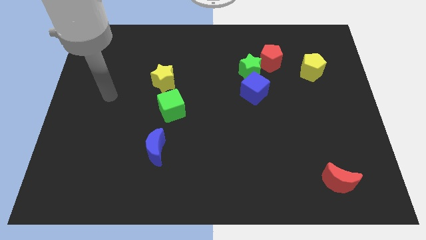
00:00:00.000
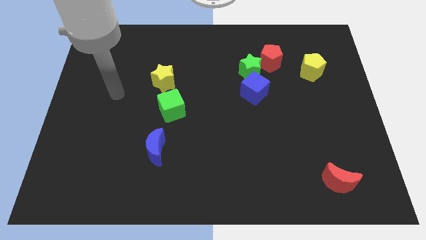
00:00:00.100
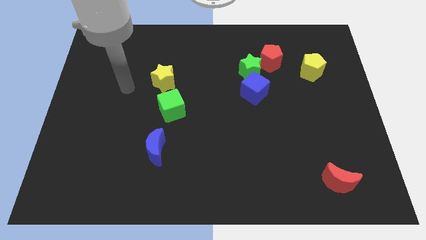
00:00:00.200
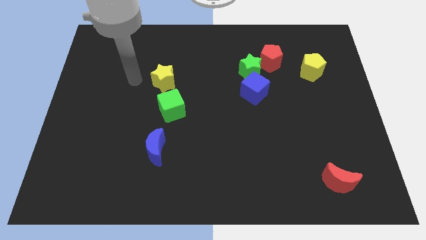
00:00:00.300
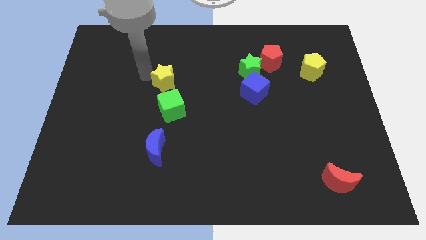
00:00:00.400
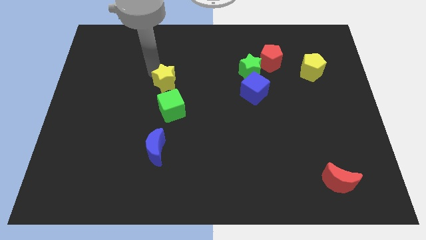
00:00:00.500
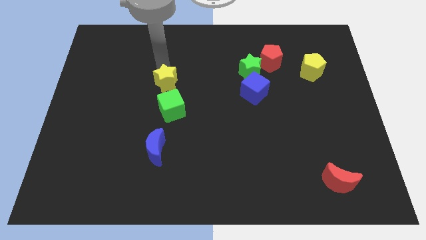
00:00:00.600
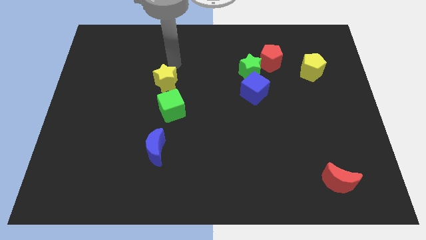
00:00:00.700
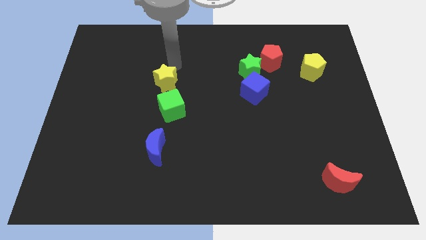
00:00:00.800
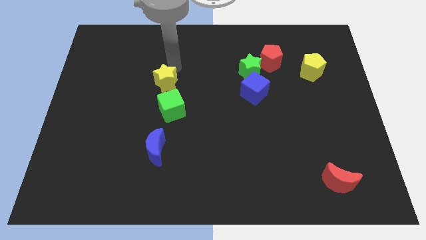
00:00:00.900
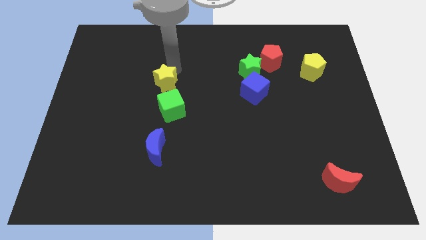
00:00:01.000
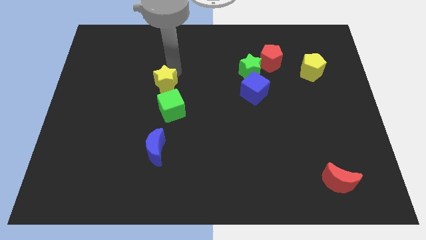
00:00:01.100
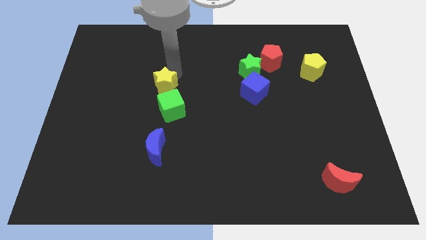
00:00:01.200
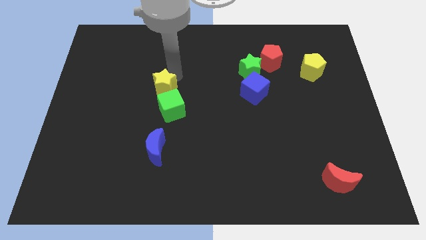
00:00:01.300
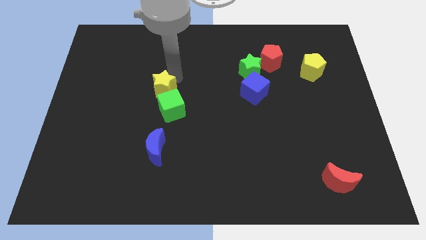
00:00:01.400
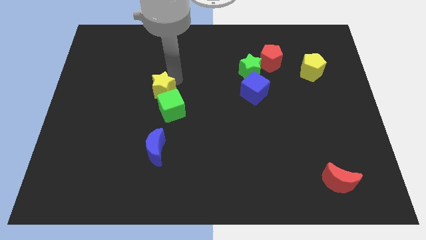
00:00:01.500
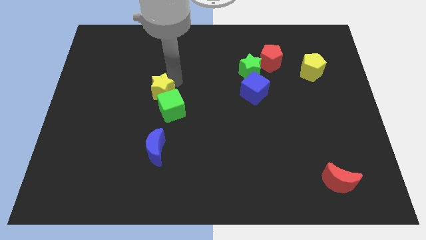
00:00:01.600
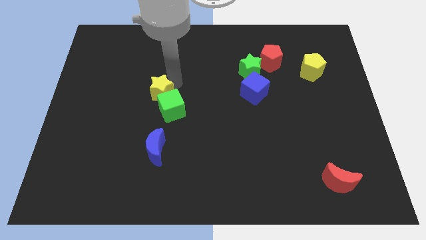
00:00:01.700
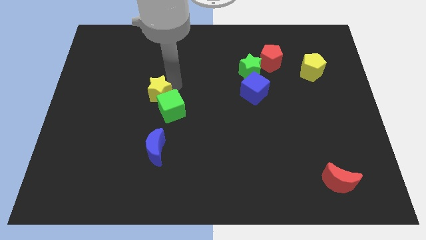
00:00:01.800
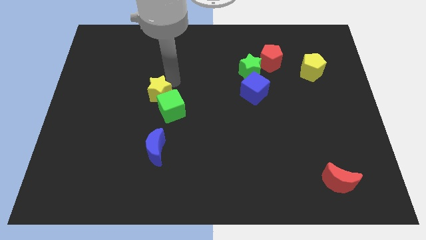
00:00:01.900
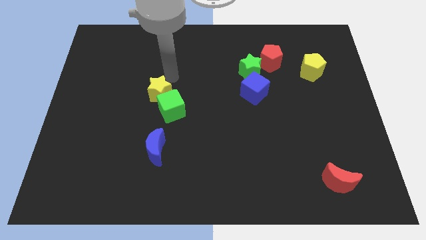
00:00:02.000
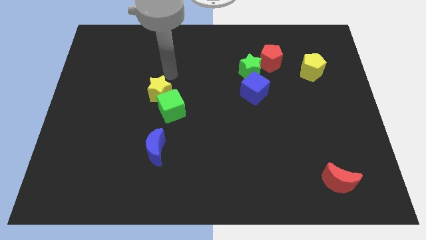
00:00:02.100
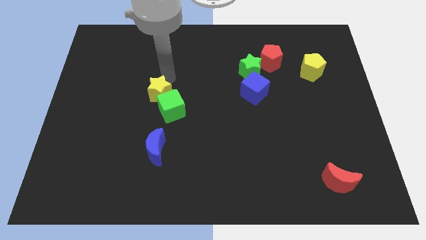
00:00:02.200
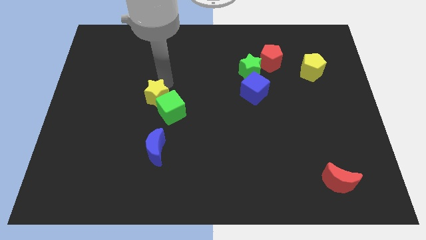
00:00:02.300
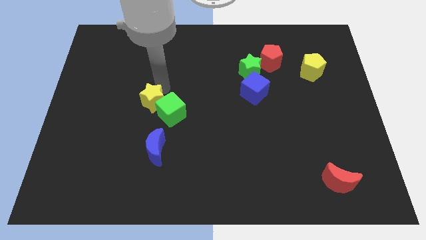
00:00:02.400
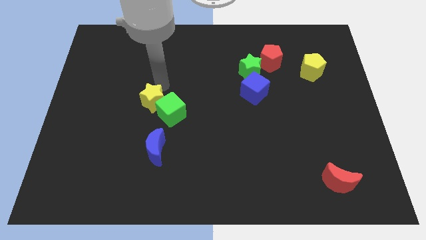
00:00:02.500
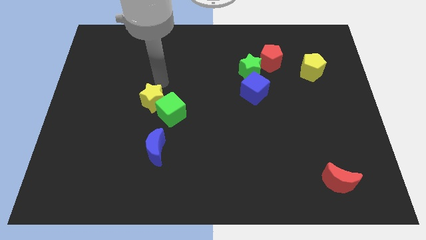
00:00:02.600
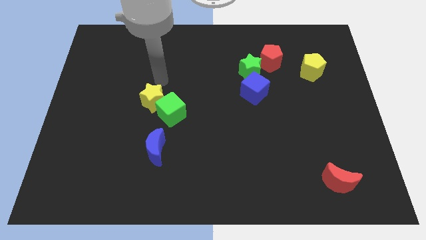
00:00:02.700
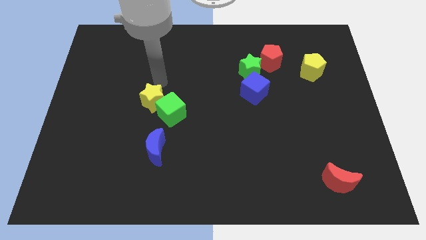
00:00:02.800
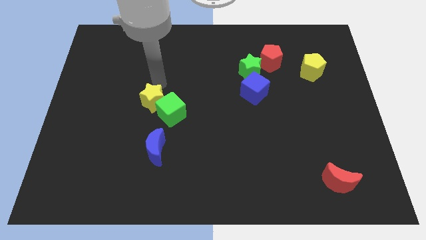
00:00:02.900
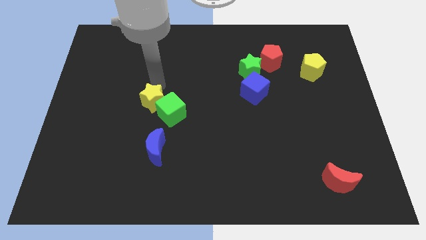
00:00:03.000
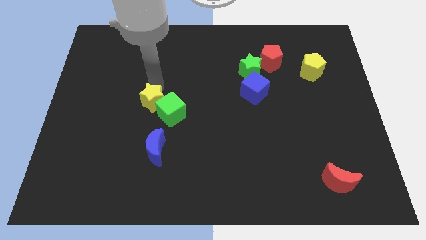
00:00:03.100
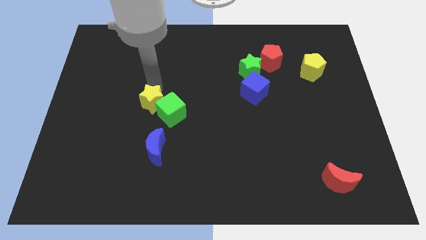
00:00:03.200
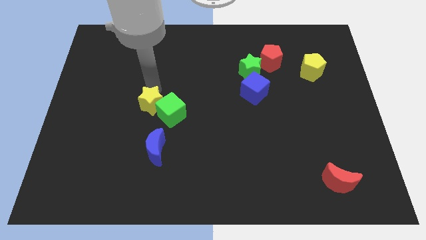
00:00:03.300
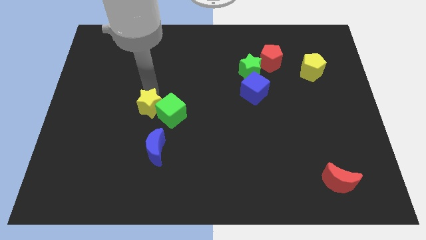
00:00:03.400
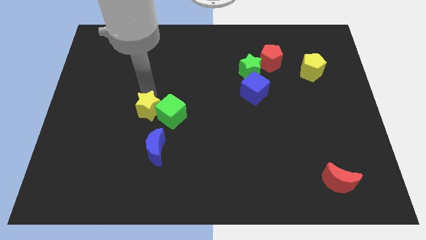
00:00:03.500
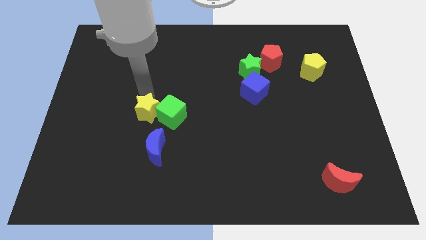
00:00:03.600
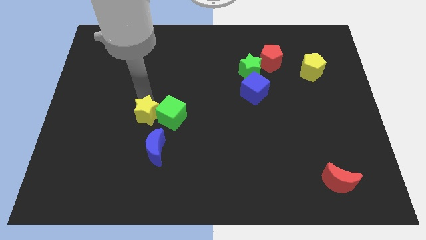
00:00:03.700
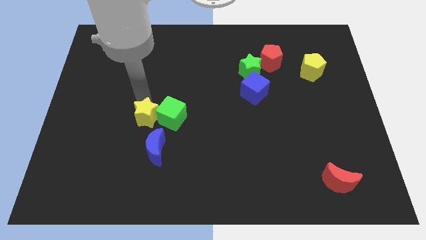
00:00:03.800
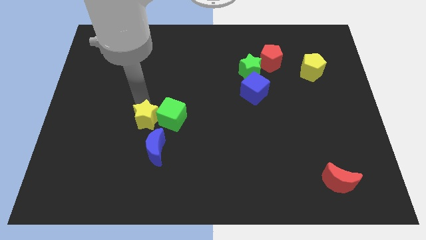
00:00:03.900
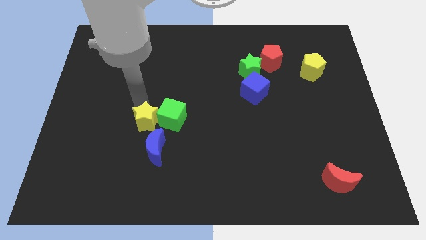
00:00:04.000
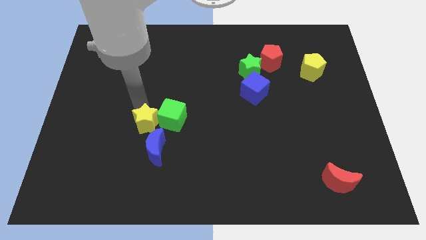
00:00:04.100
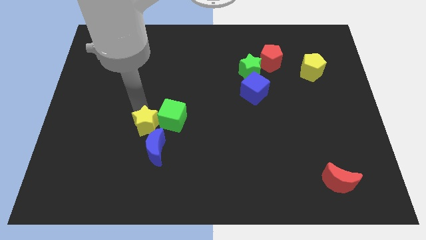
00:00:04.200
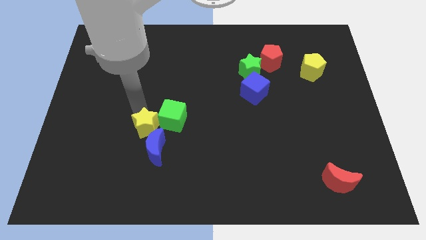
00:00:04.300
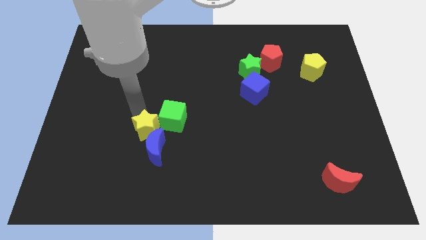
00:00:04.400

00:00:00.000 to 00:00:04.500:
put the yellow star next to the blue moon

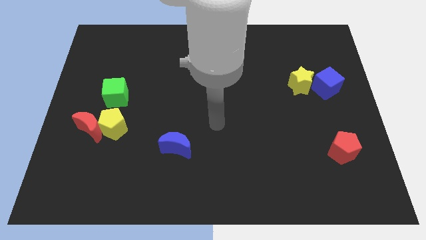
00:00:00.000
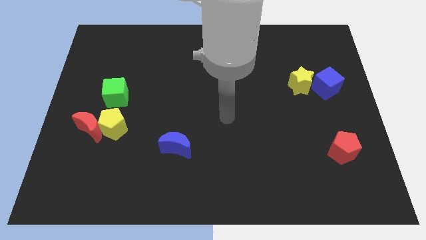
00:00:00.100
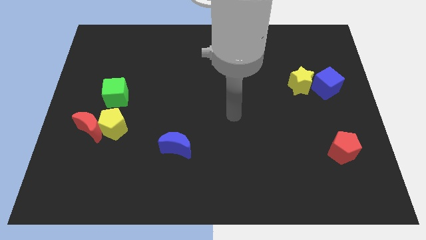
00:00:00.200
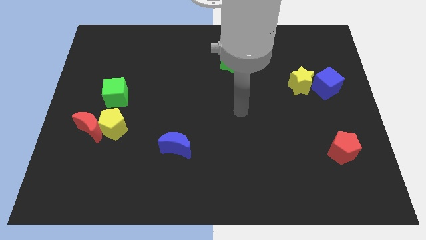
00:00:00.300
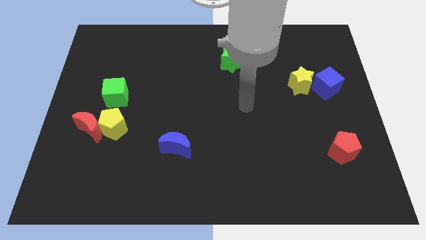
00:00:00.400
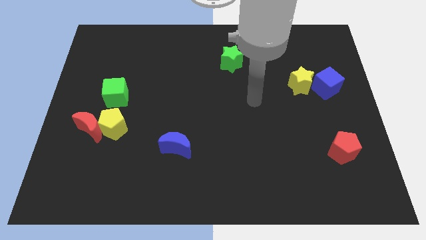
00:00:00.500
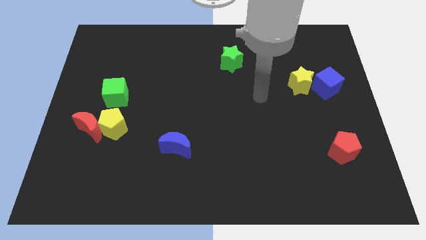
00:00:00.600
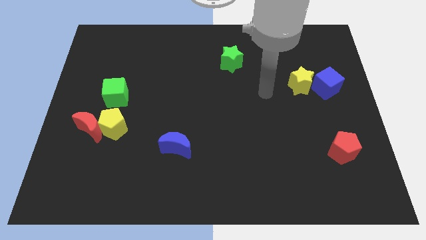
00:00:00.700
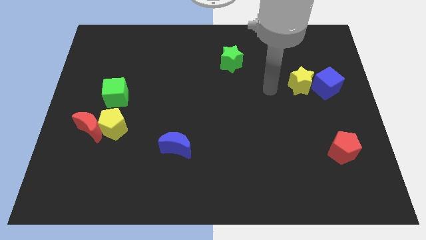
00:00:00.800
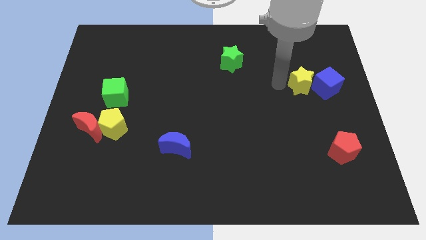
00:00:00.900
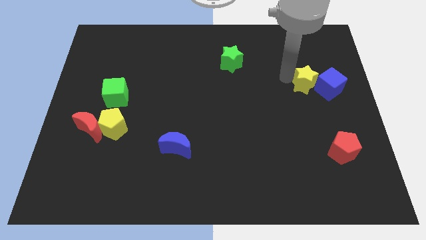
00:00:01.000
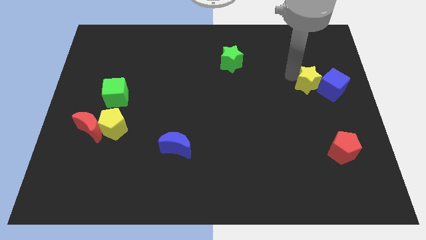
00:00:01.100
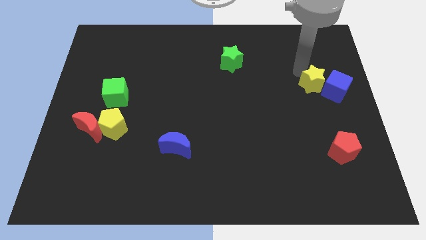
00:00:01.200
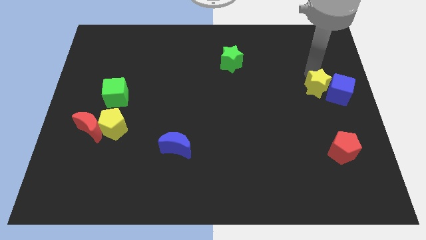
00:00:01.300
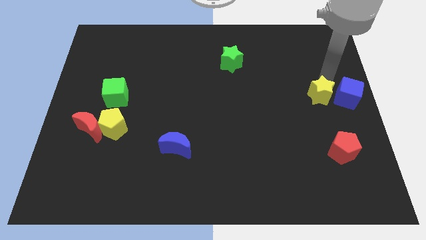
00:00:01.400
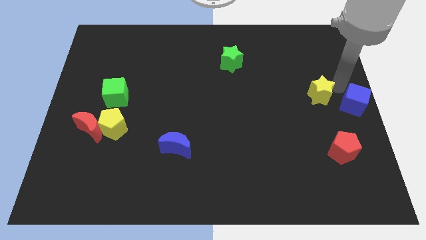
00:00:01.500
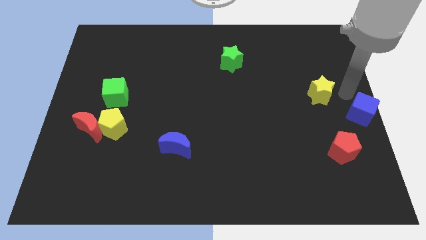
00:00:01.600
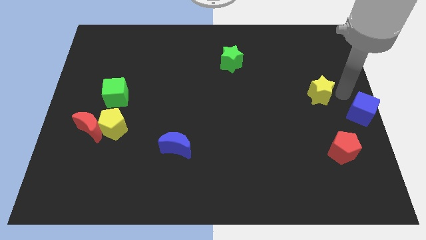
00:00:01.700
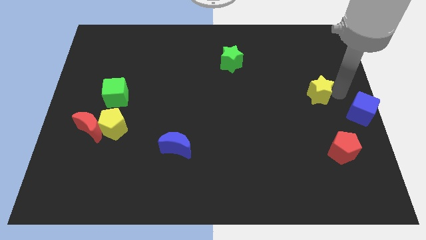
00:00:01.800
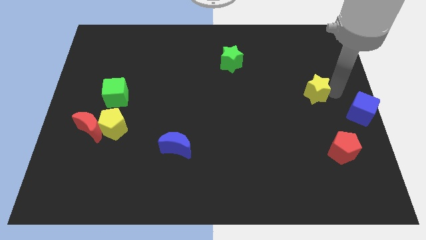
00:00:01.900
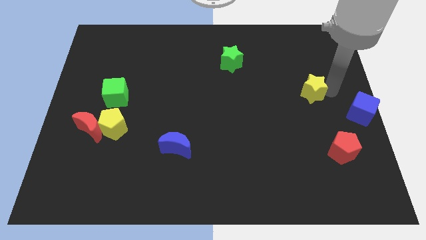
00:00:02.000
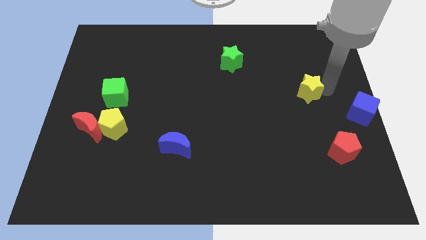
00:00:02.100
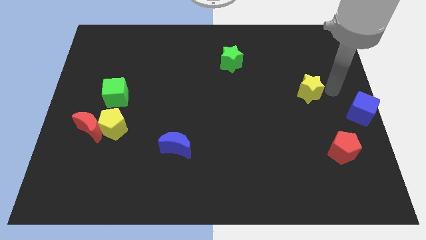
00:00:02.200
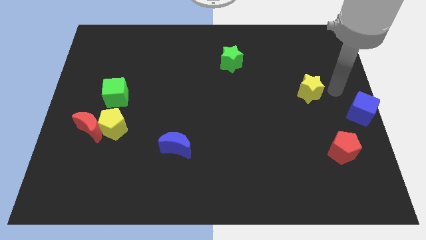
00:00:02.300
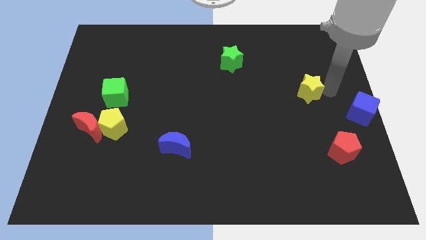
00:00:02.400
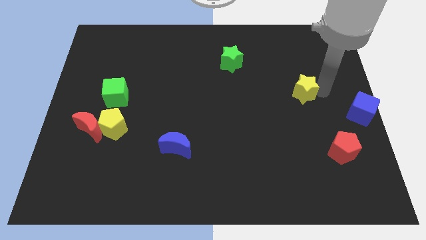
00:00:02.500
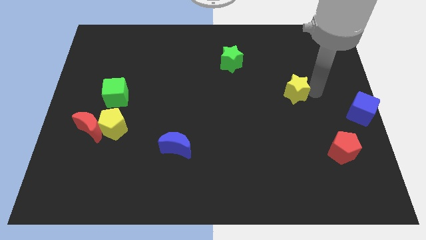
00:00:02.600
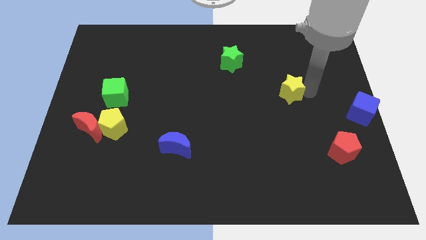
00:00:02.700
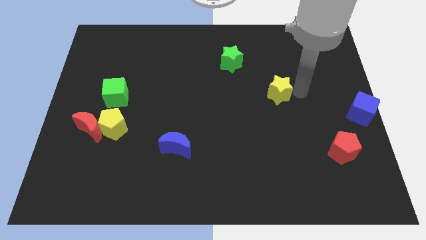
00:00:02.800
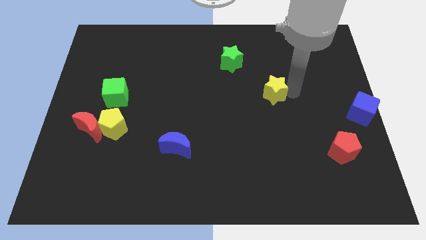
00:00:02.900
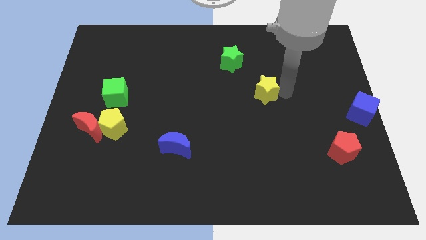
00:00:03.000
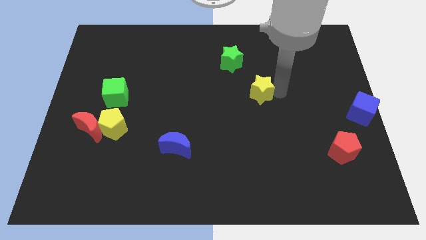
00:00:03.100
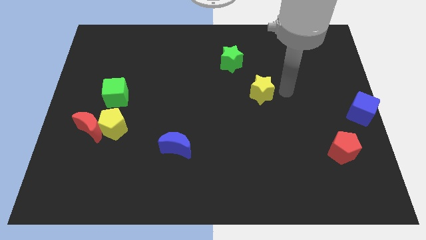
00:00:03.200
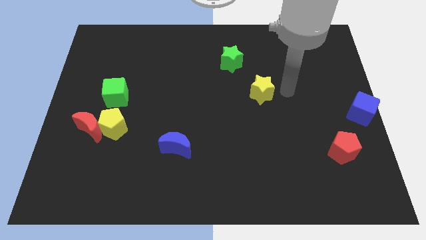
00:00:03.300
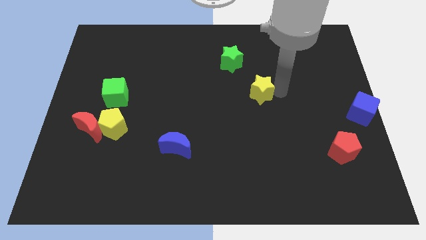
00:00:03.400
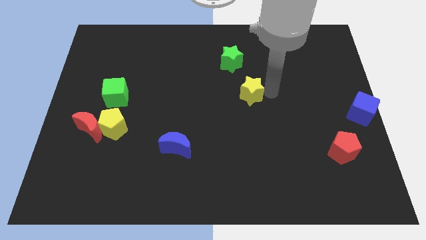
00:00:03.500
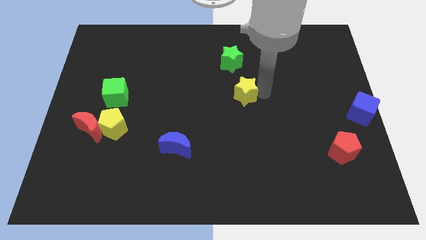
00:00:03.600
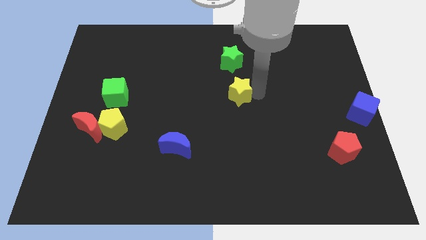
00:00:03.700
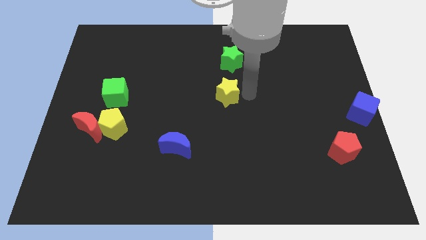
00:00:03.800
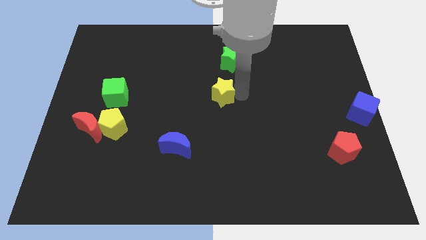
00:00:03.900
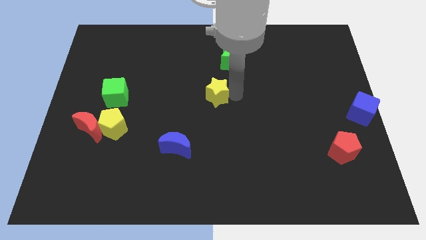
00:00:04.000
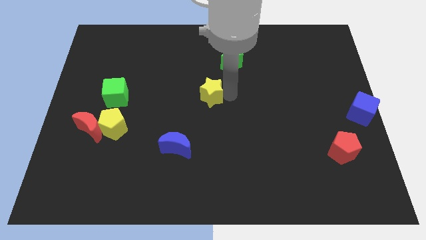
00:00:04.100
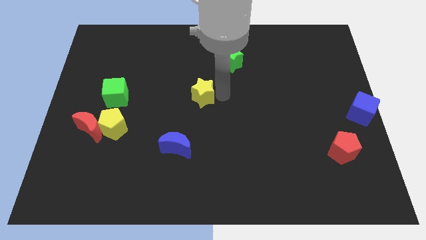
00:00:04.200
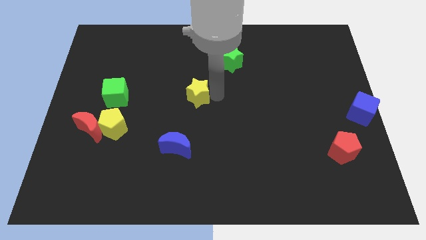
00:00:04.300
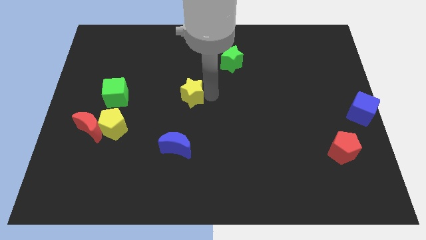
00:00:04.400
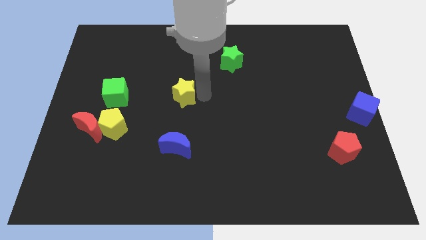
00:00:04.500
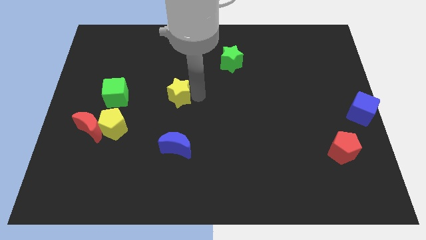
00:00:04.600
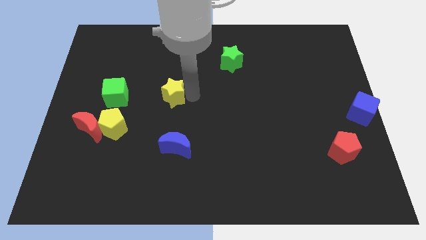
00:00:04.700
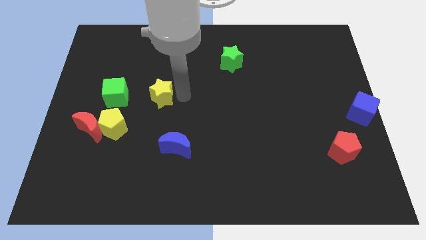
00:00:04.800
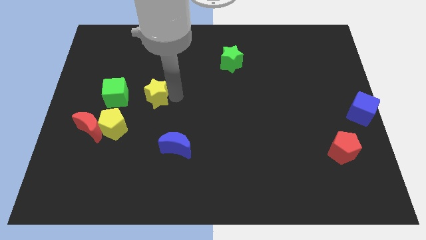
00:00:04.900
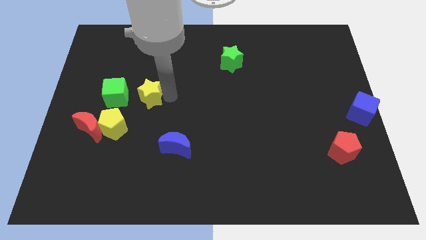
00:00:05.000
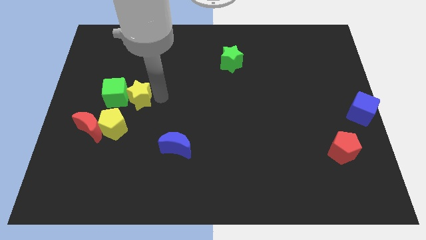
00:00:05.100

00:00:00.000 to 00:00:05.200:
move the yellow star towards the green cube
